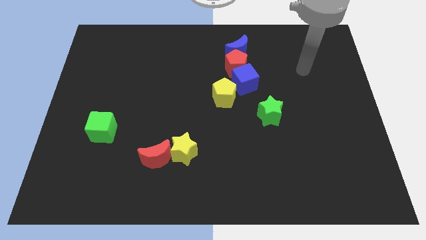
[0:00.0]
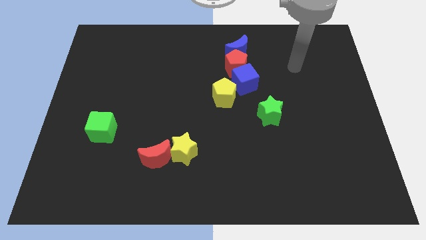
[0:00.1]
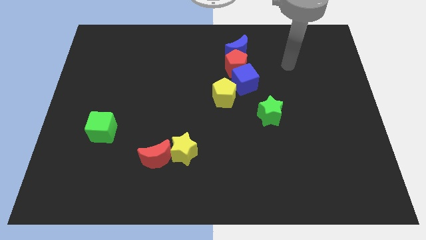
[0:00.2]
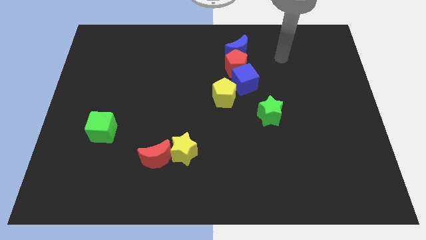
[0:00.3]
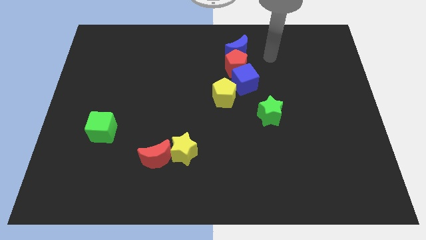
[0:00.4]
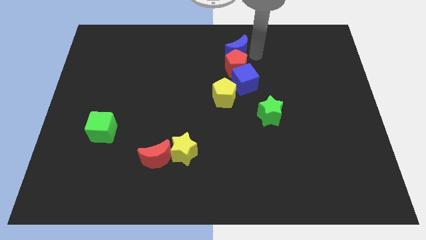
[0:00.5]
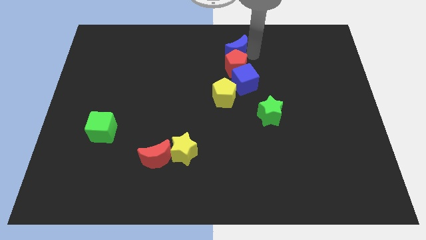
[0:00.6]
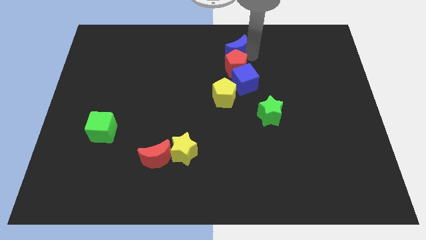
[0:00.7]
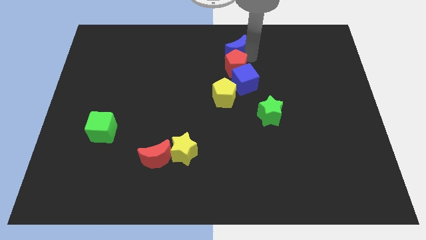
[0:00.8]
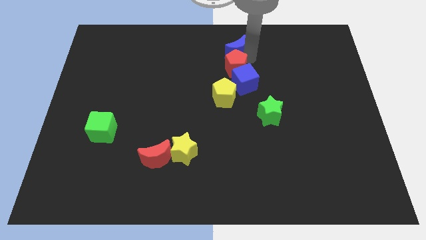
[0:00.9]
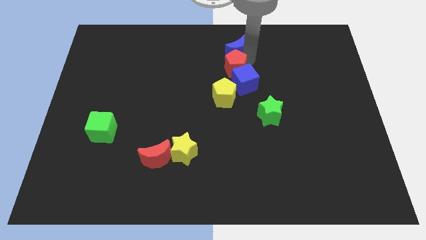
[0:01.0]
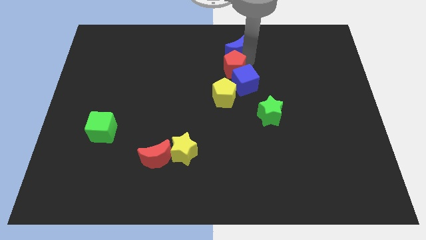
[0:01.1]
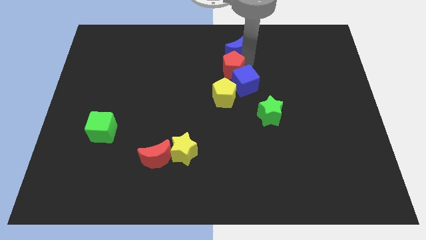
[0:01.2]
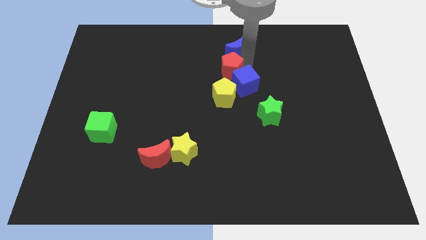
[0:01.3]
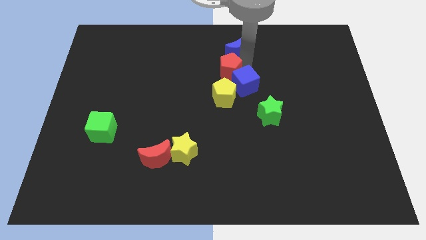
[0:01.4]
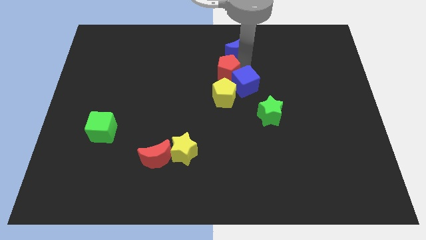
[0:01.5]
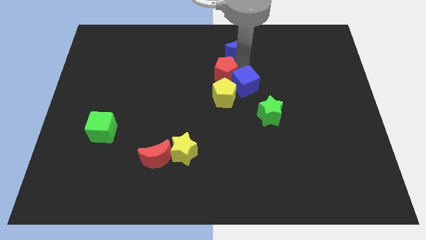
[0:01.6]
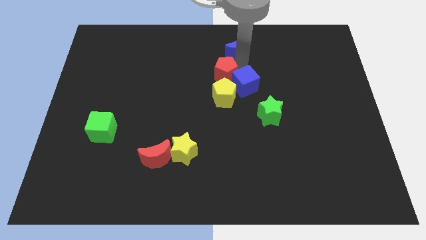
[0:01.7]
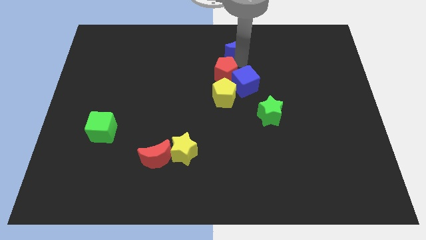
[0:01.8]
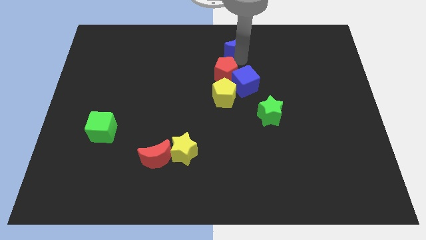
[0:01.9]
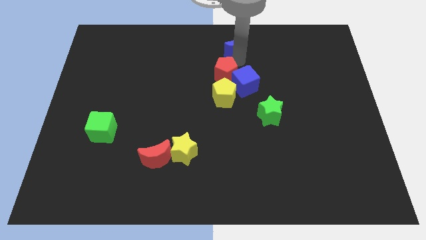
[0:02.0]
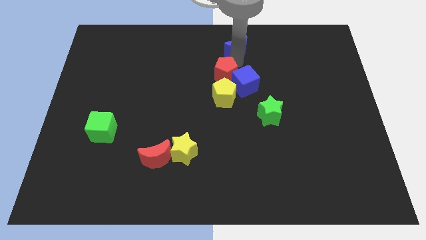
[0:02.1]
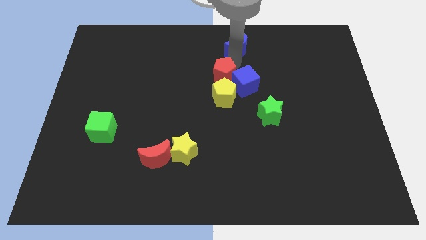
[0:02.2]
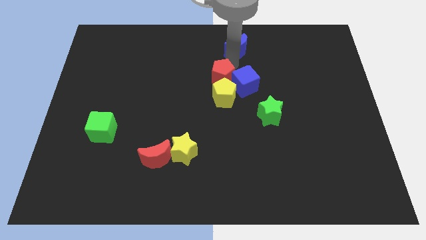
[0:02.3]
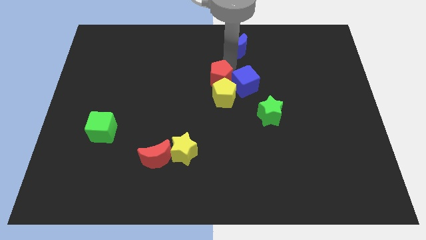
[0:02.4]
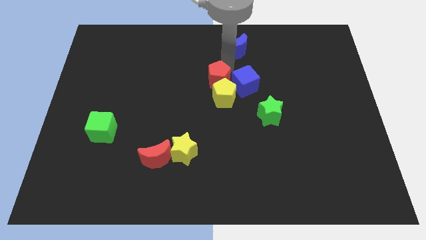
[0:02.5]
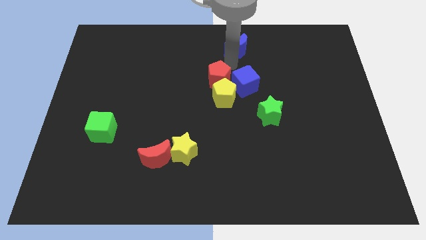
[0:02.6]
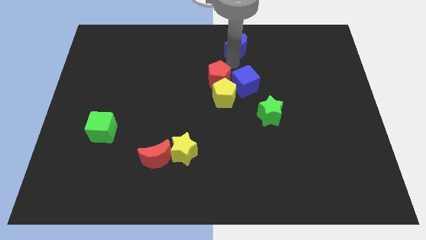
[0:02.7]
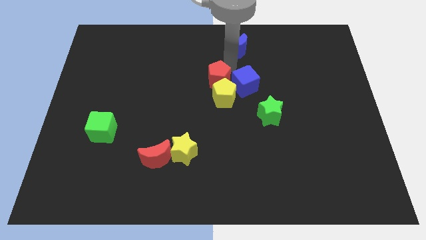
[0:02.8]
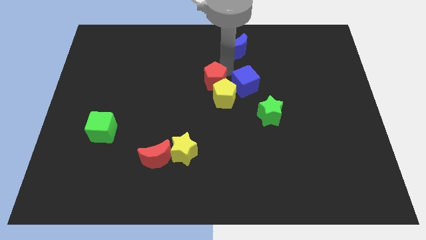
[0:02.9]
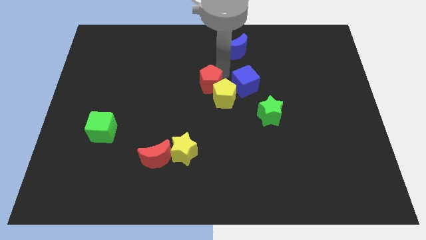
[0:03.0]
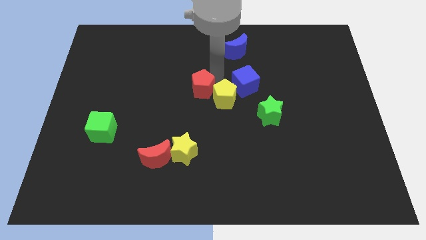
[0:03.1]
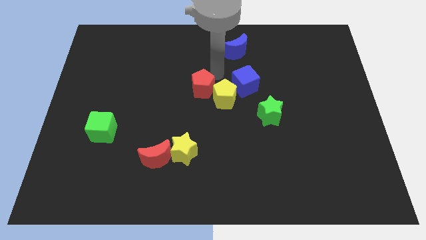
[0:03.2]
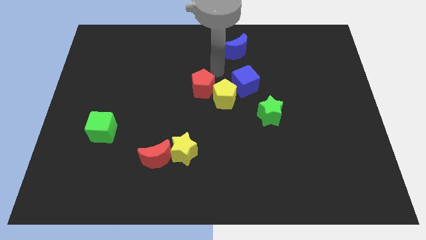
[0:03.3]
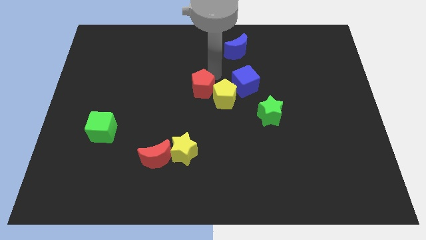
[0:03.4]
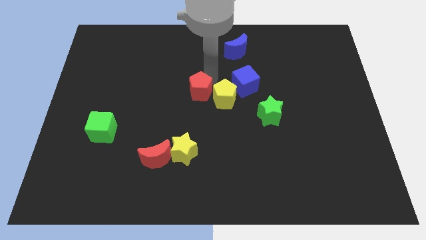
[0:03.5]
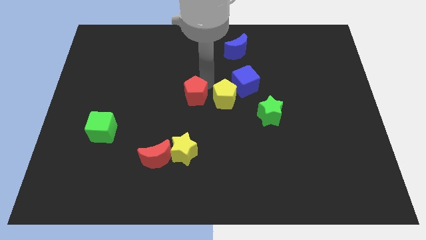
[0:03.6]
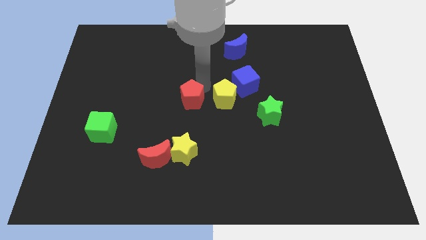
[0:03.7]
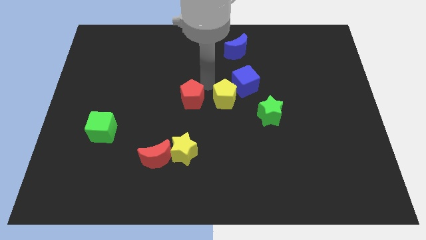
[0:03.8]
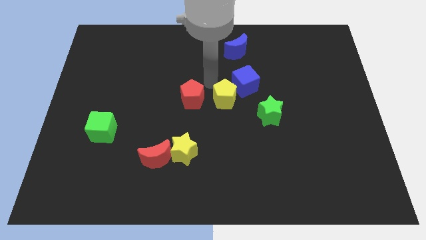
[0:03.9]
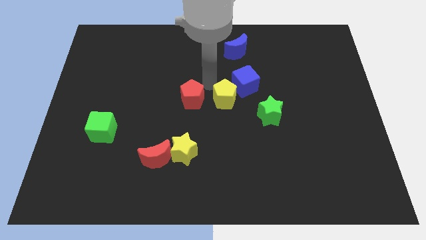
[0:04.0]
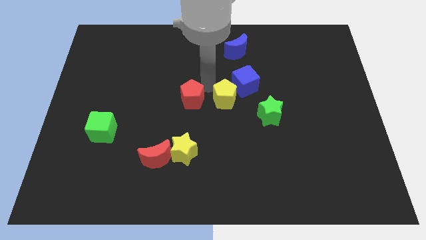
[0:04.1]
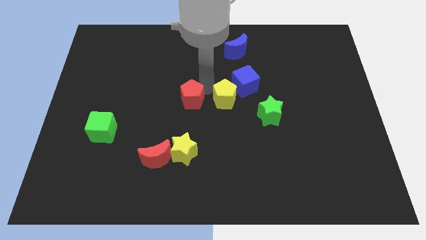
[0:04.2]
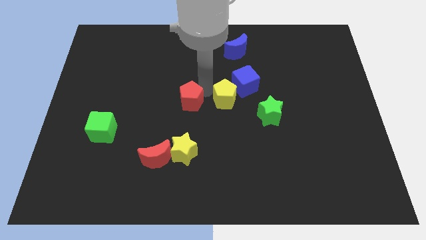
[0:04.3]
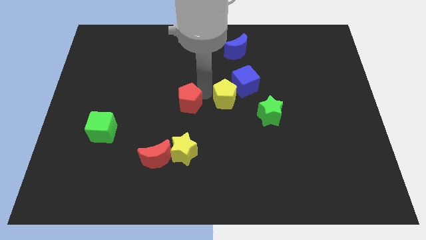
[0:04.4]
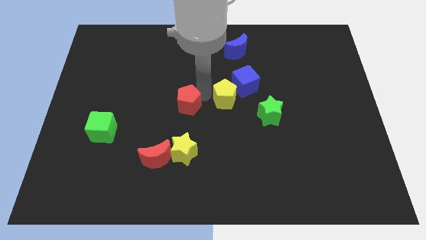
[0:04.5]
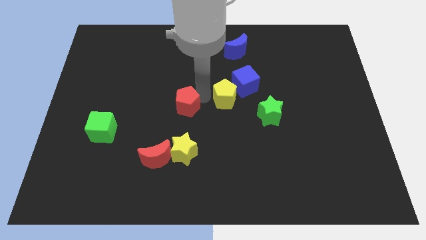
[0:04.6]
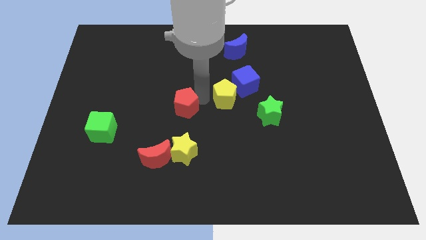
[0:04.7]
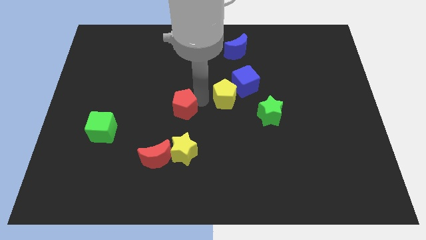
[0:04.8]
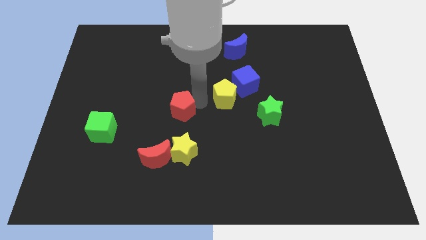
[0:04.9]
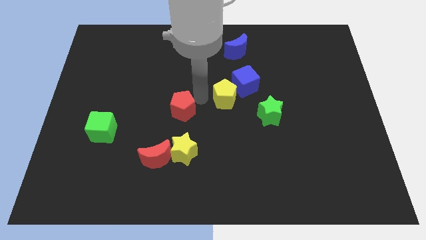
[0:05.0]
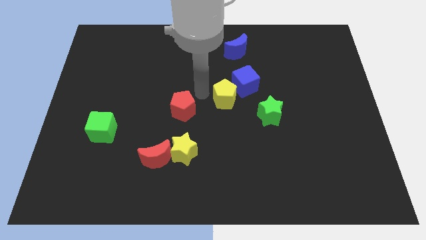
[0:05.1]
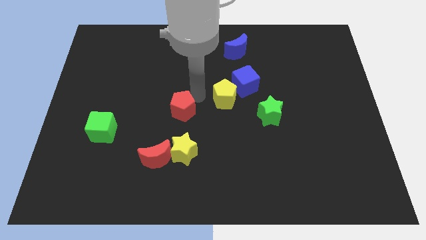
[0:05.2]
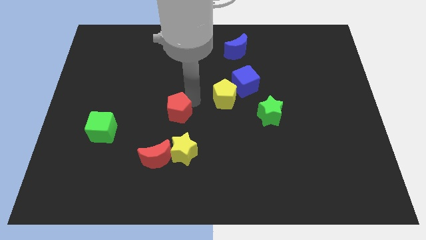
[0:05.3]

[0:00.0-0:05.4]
slide the red pentagon diagonally downwards and left

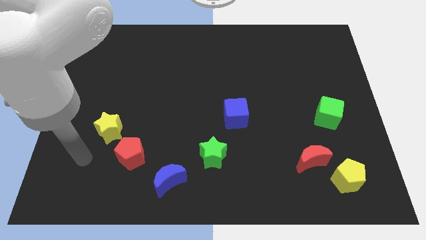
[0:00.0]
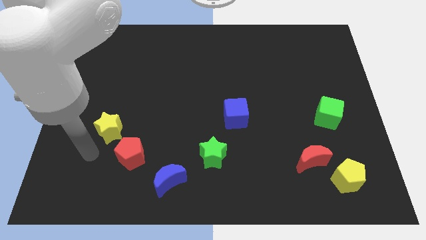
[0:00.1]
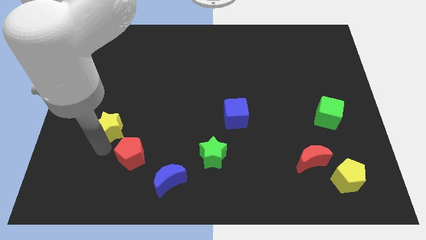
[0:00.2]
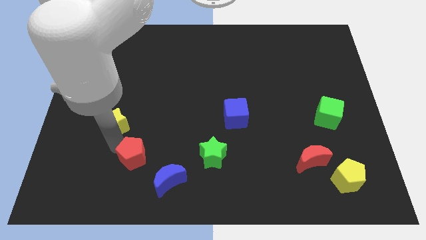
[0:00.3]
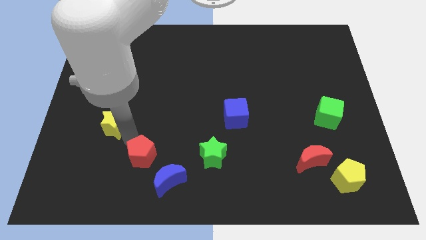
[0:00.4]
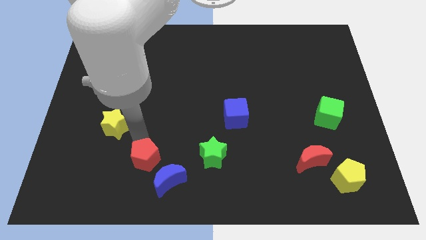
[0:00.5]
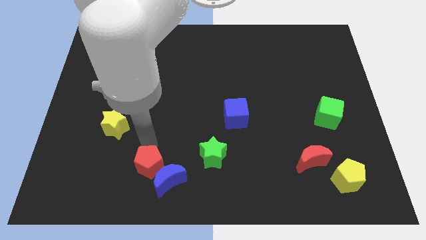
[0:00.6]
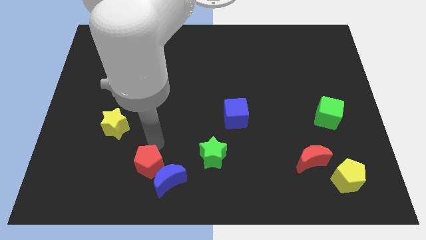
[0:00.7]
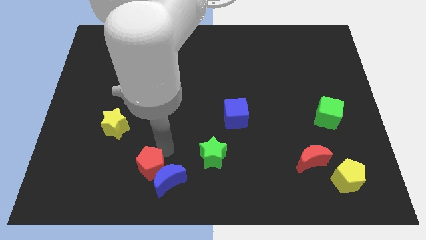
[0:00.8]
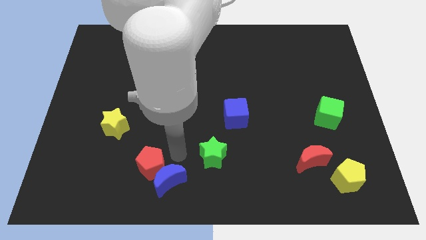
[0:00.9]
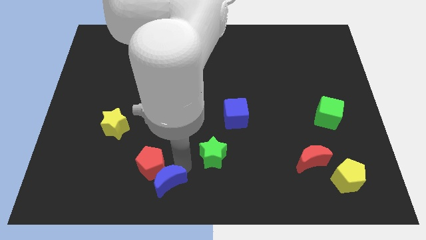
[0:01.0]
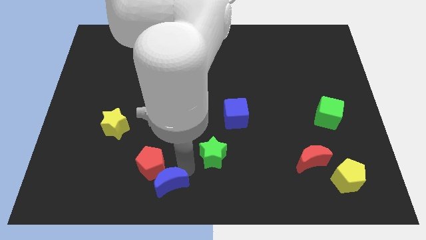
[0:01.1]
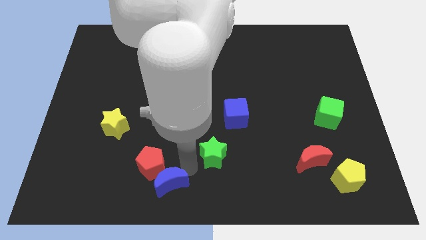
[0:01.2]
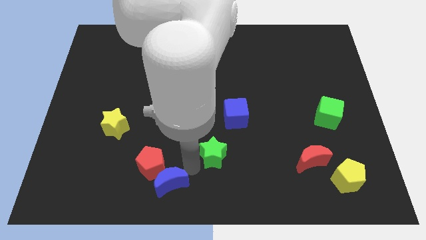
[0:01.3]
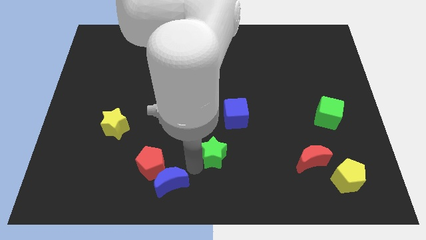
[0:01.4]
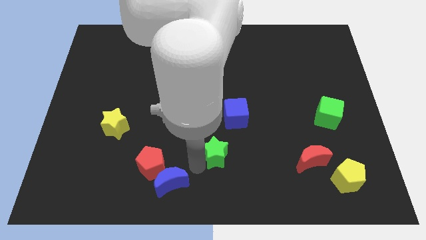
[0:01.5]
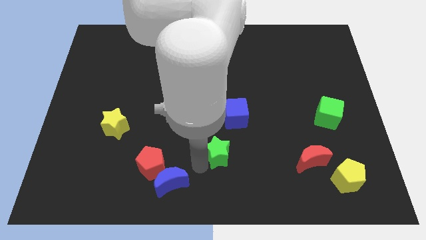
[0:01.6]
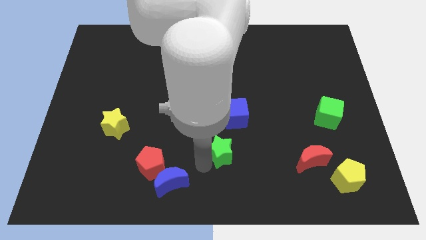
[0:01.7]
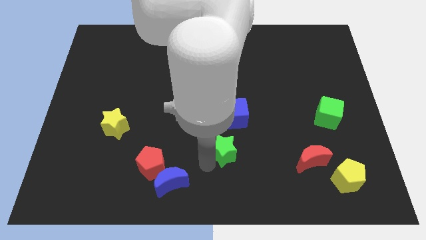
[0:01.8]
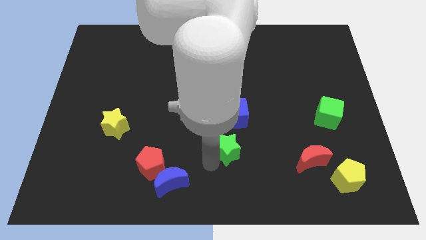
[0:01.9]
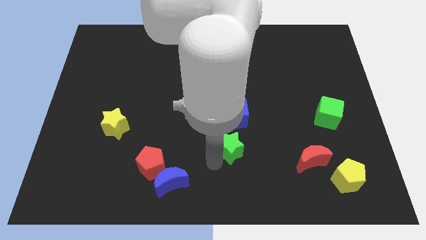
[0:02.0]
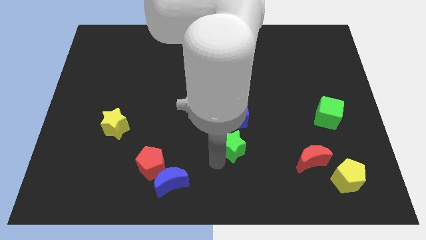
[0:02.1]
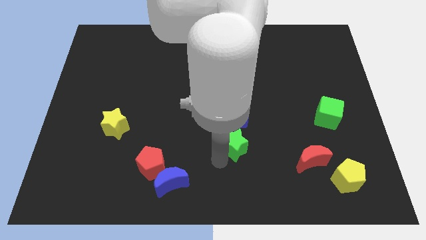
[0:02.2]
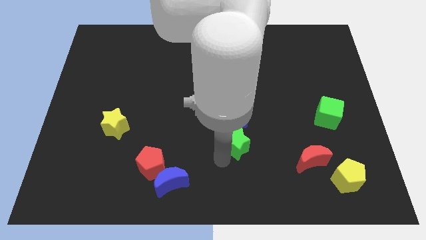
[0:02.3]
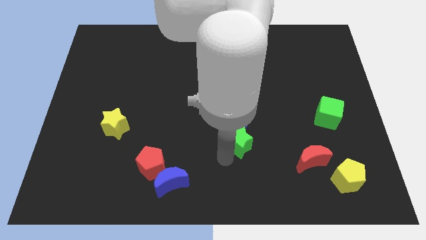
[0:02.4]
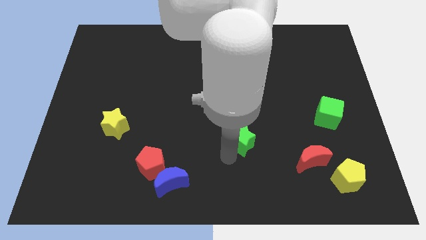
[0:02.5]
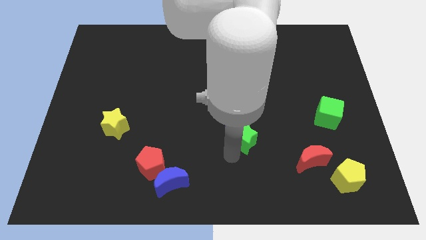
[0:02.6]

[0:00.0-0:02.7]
move the green star a little bit upwards and to the right

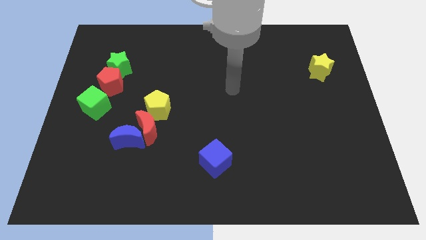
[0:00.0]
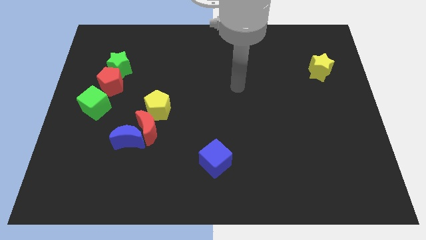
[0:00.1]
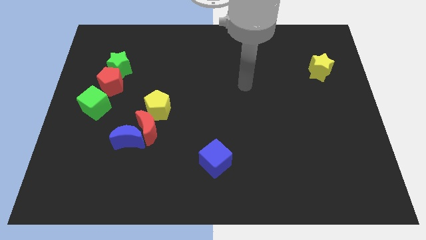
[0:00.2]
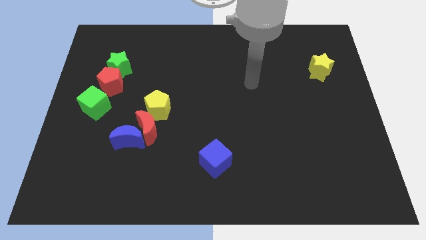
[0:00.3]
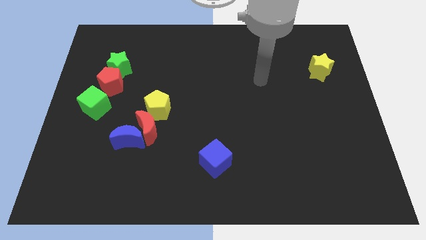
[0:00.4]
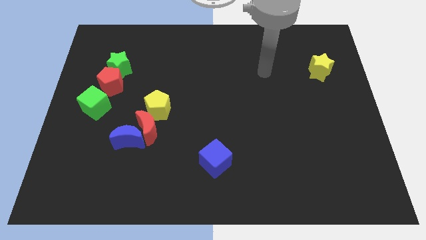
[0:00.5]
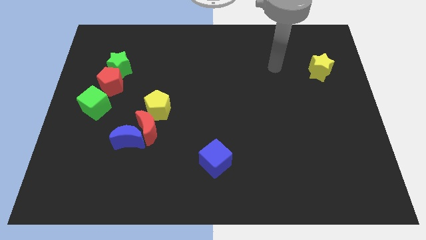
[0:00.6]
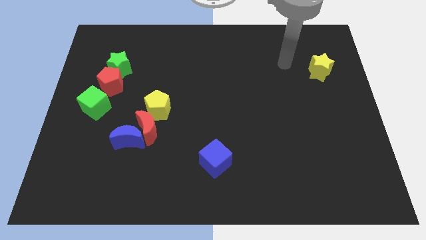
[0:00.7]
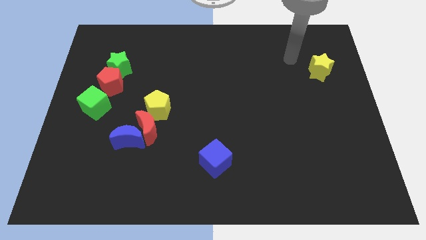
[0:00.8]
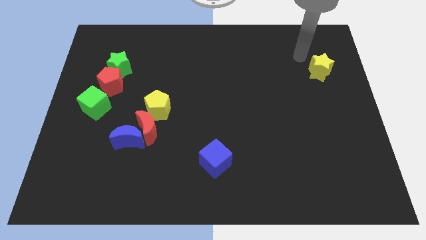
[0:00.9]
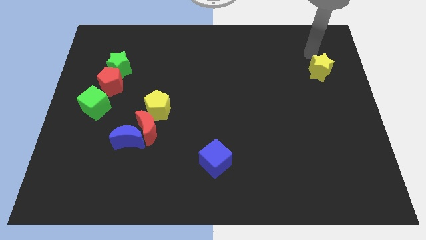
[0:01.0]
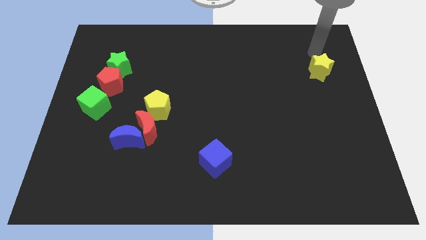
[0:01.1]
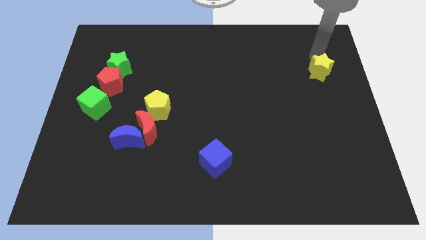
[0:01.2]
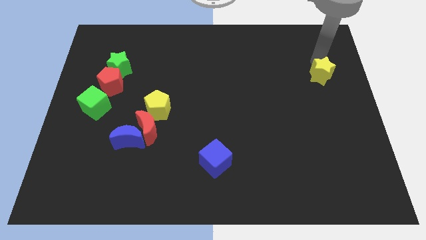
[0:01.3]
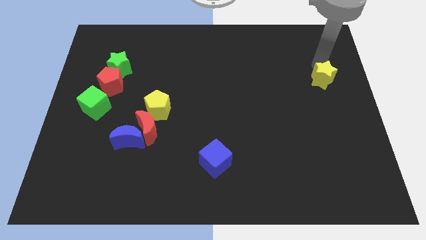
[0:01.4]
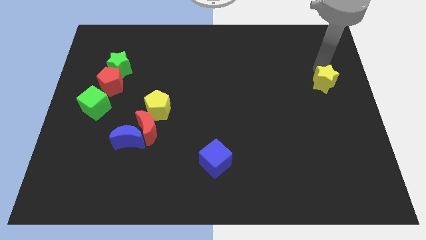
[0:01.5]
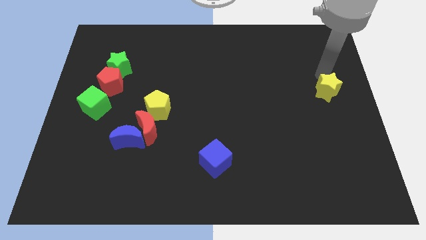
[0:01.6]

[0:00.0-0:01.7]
push the yellow star down a little
